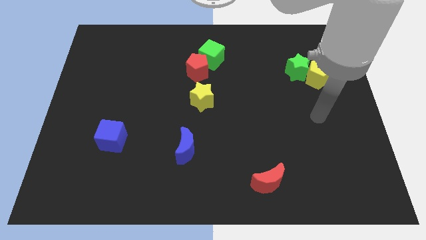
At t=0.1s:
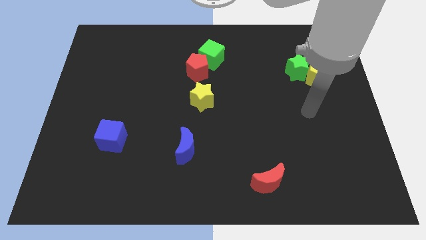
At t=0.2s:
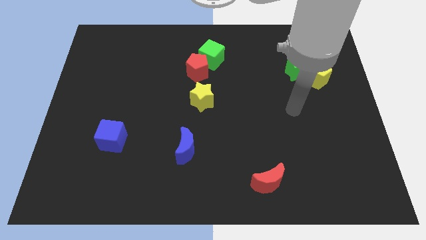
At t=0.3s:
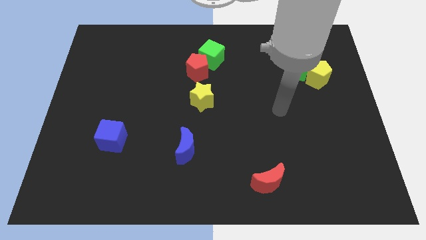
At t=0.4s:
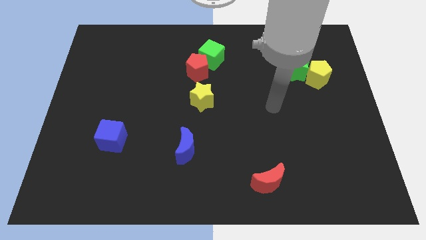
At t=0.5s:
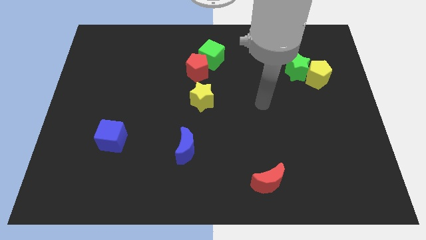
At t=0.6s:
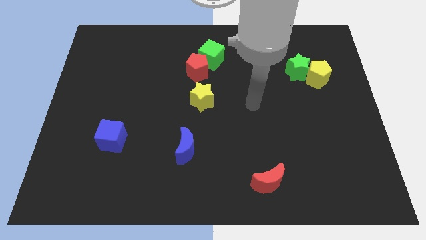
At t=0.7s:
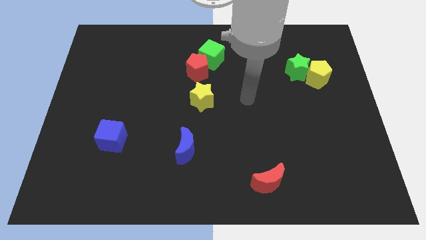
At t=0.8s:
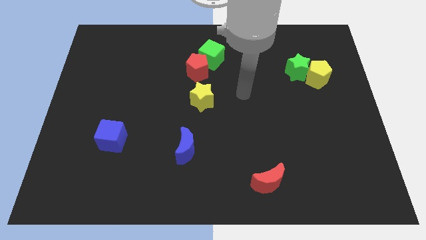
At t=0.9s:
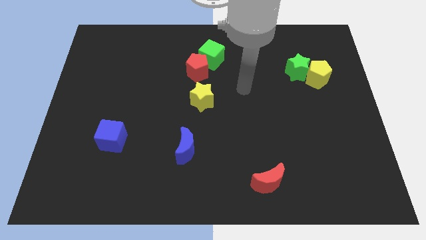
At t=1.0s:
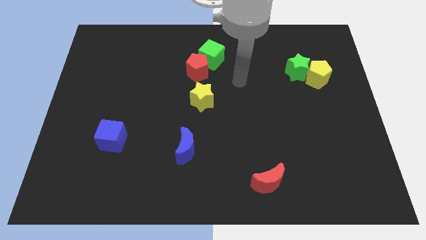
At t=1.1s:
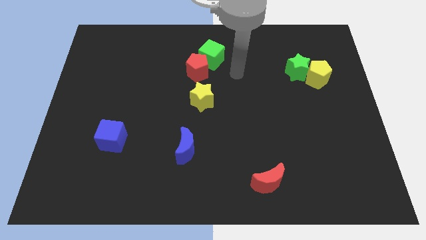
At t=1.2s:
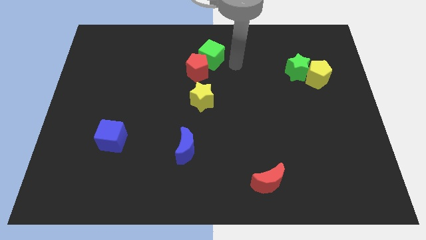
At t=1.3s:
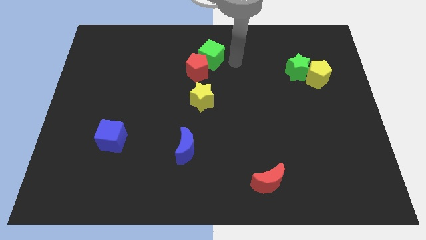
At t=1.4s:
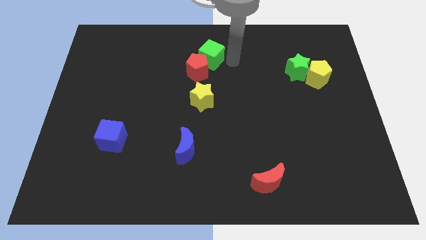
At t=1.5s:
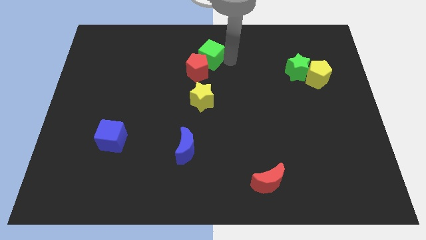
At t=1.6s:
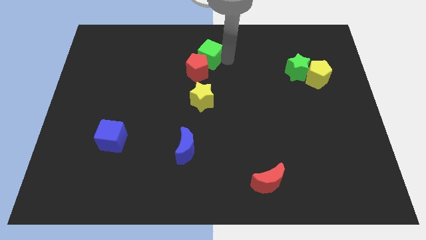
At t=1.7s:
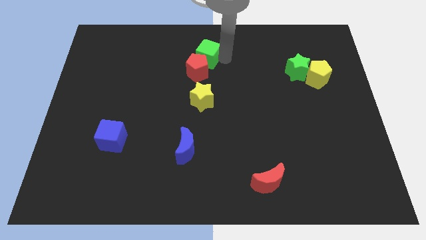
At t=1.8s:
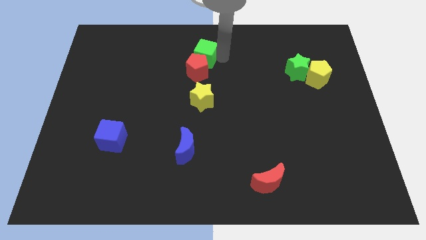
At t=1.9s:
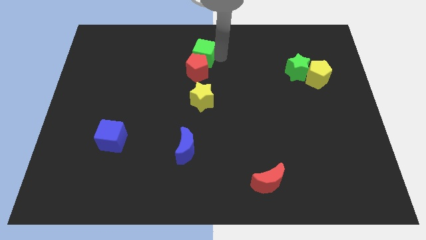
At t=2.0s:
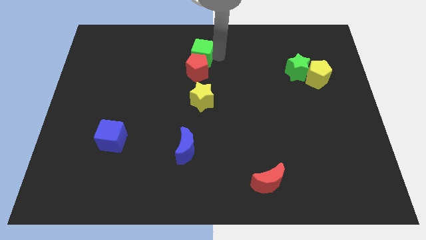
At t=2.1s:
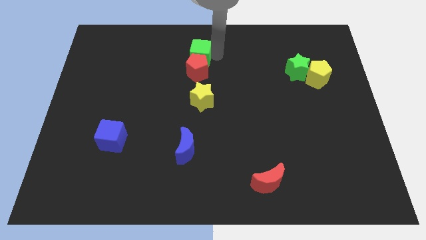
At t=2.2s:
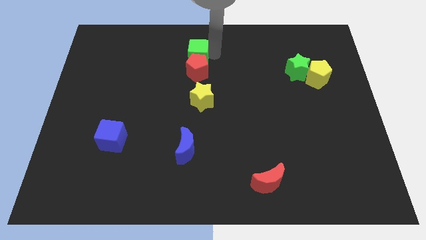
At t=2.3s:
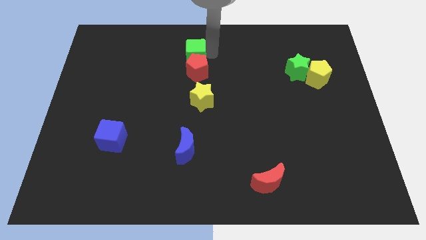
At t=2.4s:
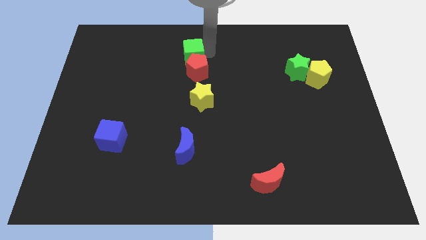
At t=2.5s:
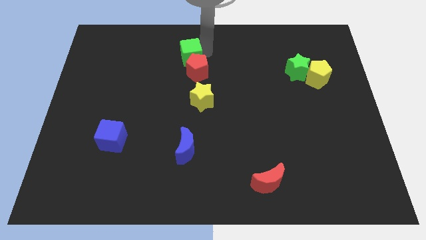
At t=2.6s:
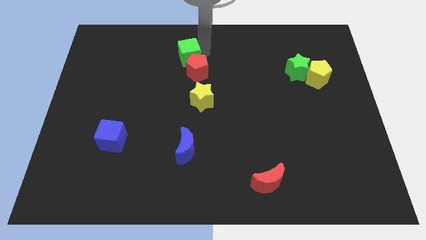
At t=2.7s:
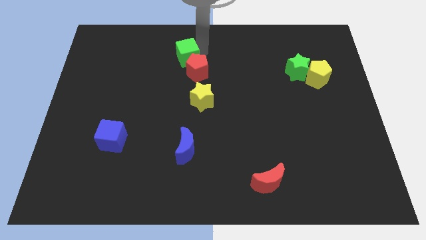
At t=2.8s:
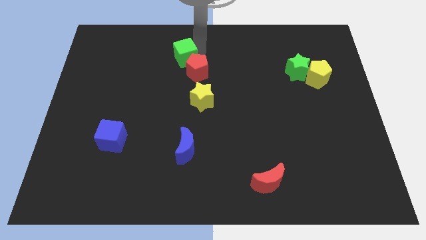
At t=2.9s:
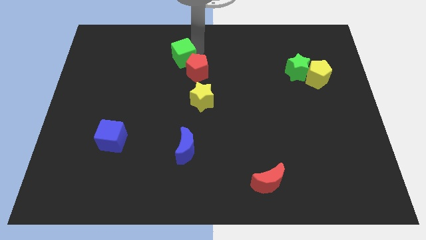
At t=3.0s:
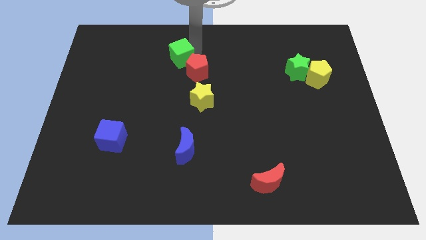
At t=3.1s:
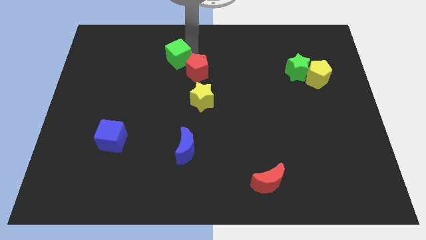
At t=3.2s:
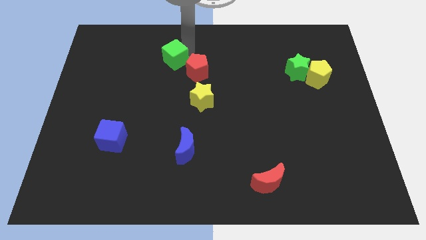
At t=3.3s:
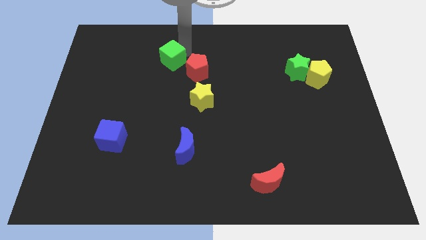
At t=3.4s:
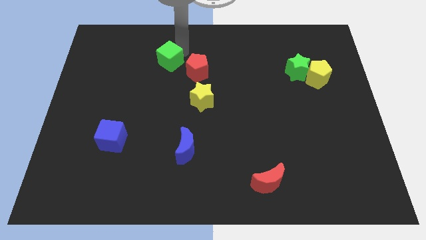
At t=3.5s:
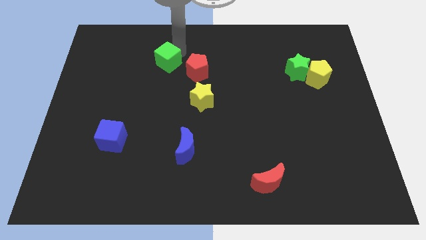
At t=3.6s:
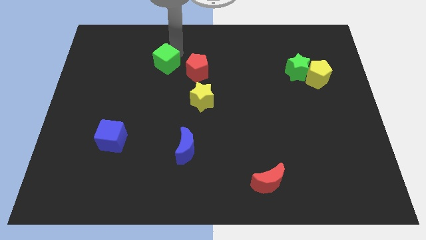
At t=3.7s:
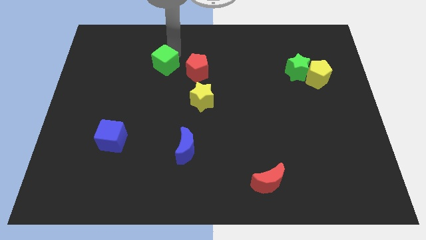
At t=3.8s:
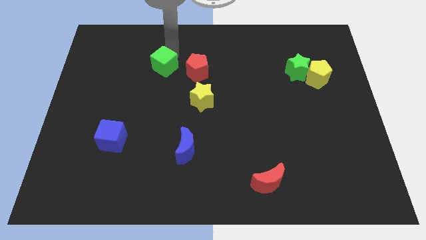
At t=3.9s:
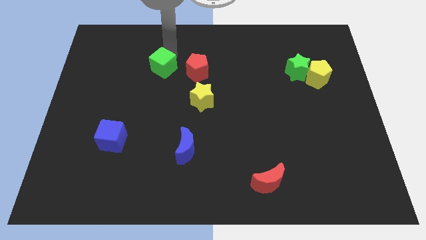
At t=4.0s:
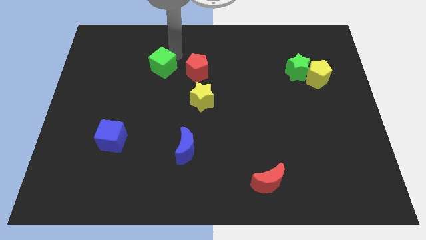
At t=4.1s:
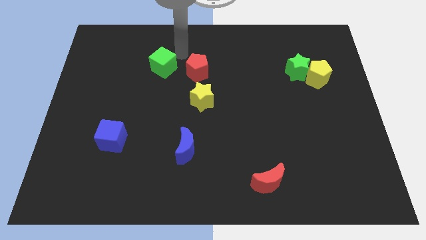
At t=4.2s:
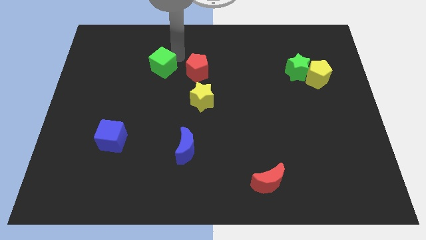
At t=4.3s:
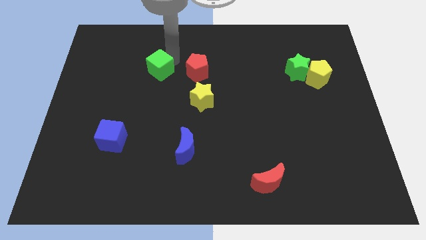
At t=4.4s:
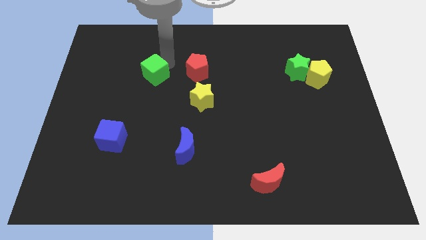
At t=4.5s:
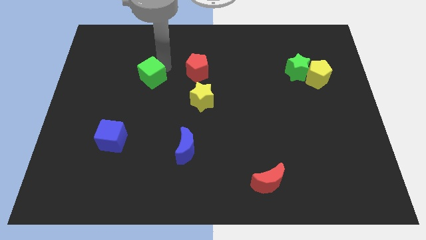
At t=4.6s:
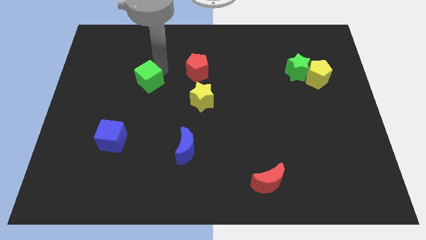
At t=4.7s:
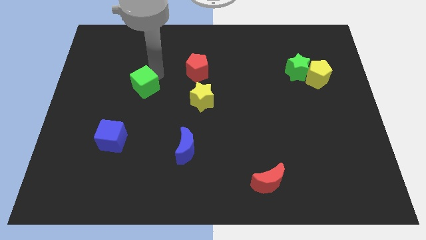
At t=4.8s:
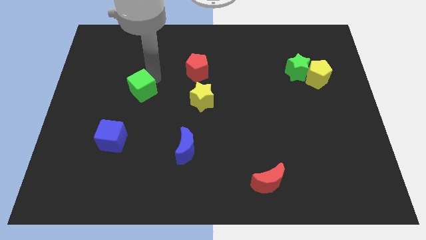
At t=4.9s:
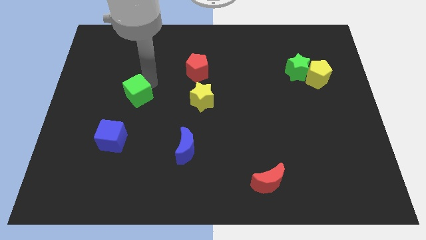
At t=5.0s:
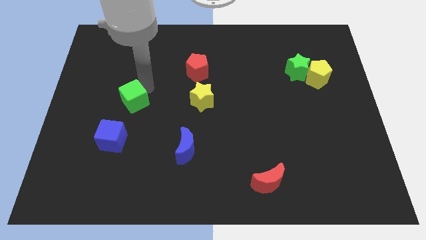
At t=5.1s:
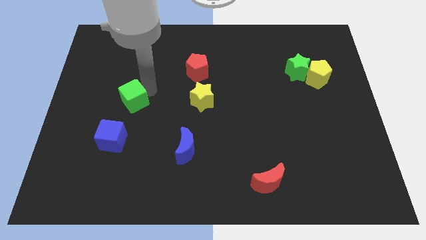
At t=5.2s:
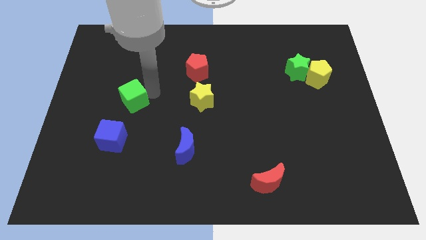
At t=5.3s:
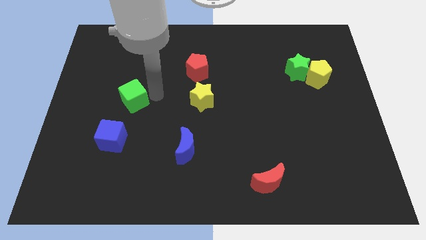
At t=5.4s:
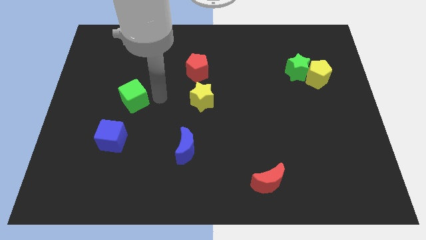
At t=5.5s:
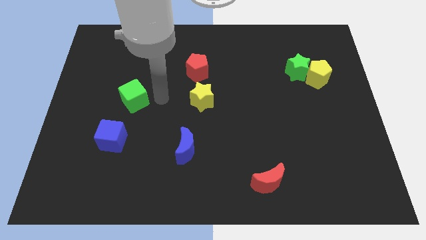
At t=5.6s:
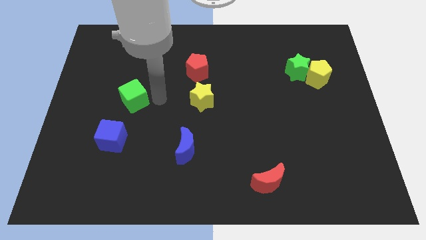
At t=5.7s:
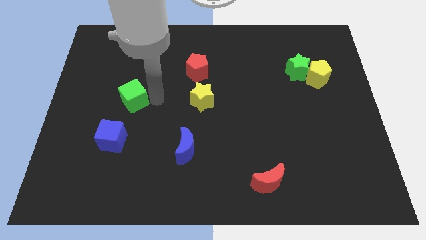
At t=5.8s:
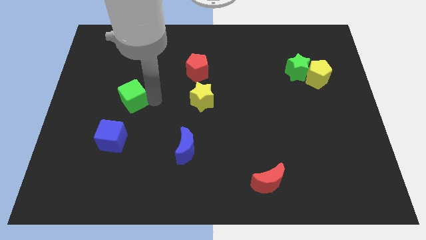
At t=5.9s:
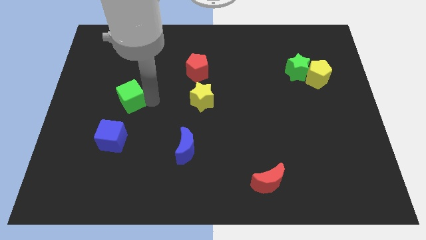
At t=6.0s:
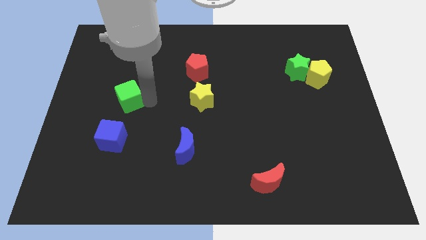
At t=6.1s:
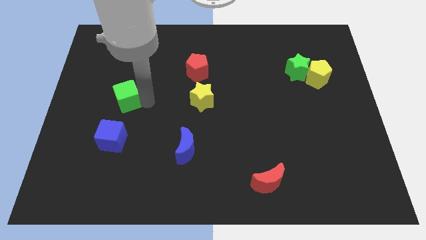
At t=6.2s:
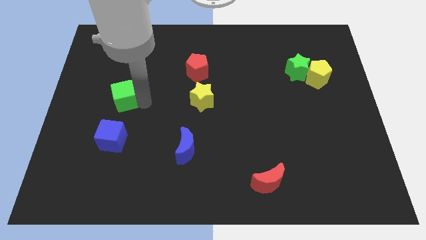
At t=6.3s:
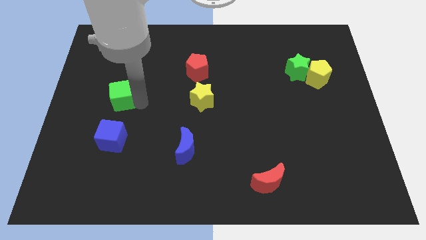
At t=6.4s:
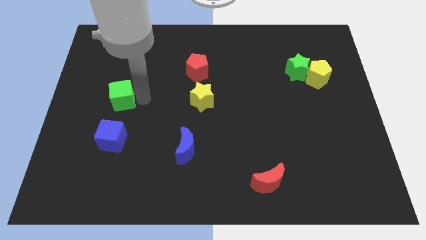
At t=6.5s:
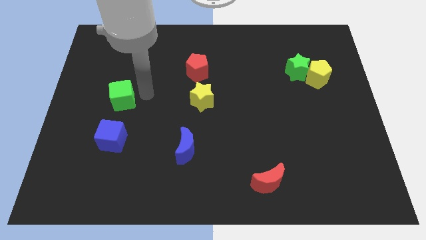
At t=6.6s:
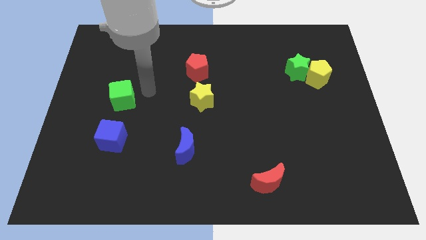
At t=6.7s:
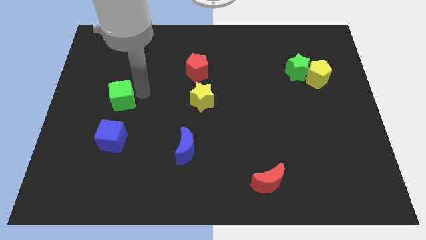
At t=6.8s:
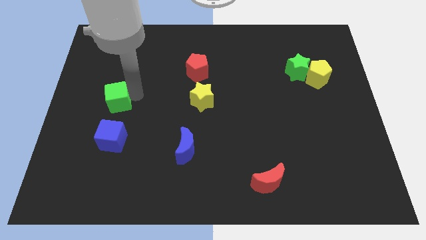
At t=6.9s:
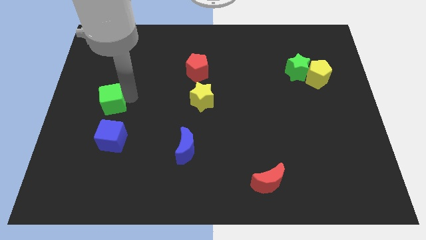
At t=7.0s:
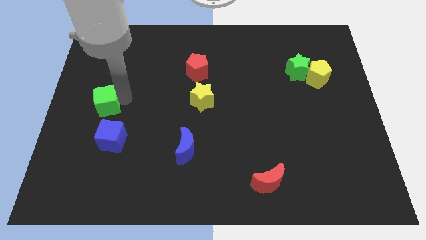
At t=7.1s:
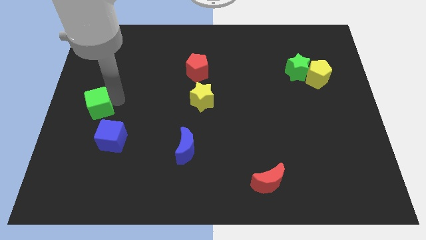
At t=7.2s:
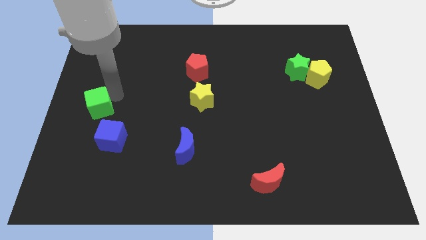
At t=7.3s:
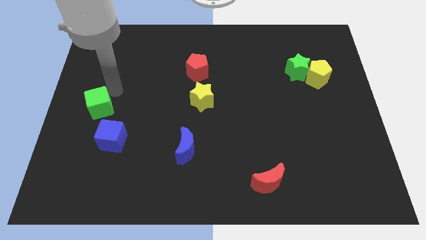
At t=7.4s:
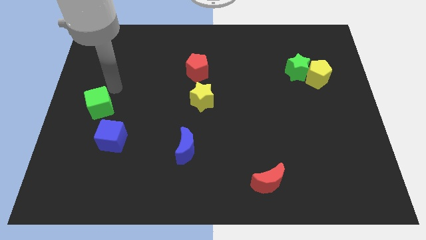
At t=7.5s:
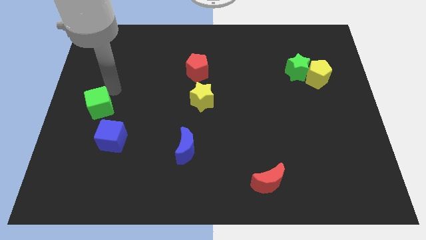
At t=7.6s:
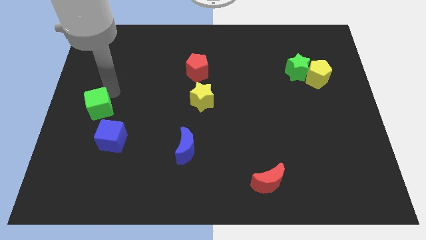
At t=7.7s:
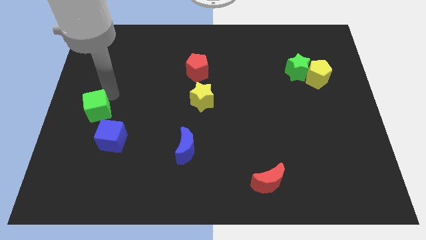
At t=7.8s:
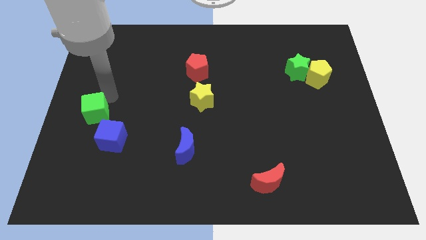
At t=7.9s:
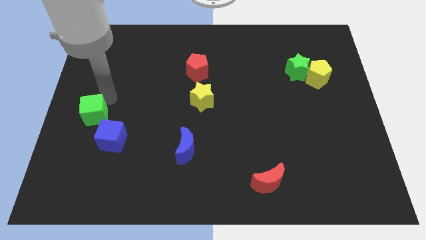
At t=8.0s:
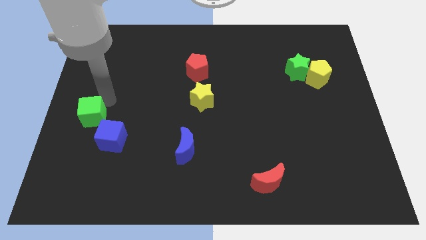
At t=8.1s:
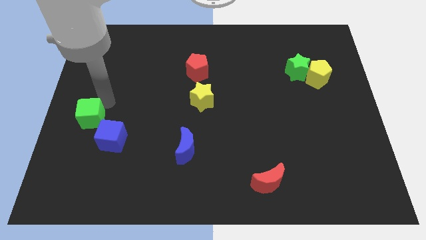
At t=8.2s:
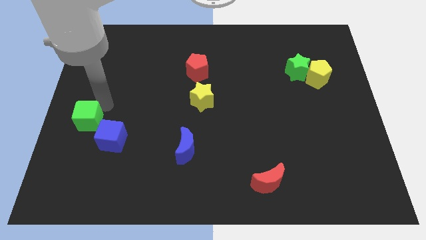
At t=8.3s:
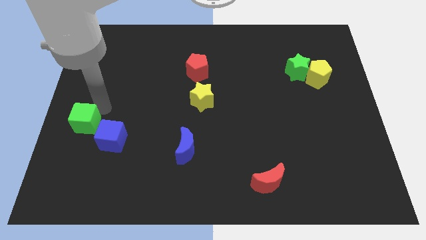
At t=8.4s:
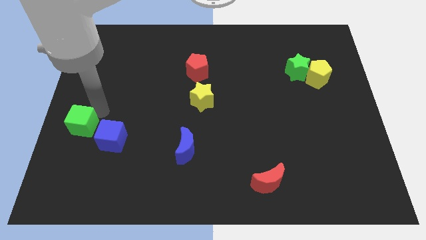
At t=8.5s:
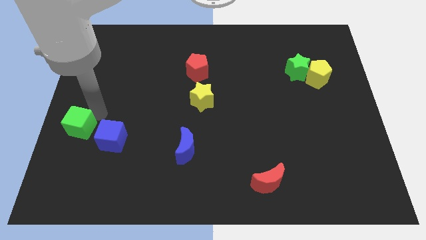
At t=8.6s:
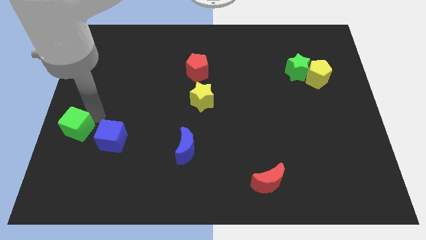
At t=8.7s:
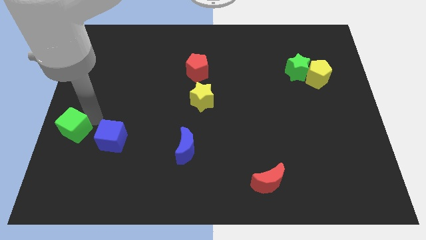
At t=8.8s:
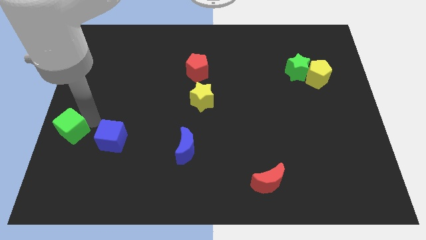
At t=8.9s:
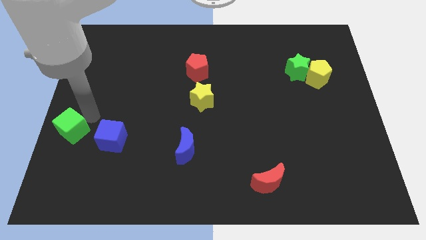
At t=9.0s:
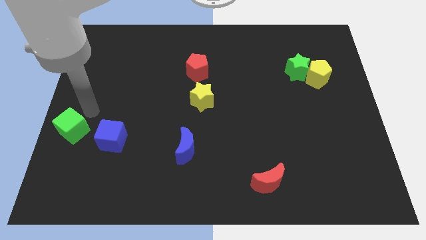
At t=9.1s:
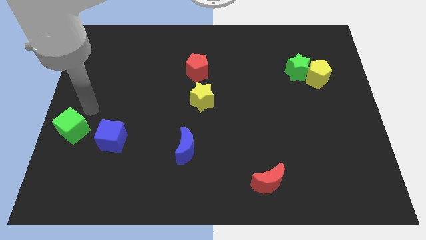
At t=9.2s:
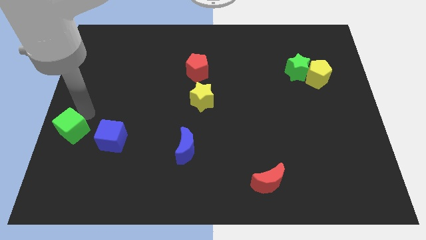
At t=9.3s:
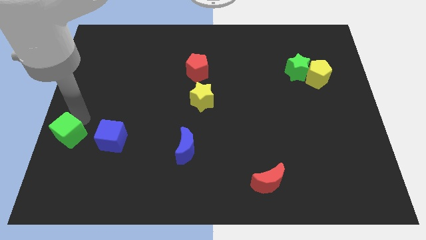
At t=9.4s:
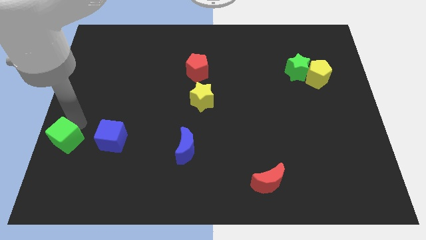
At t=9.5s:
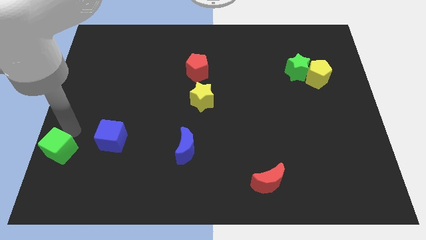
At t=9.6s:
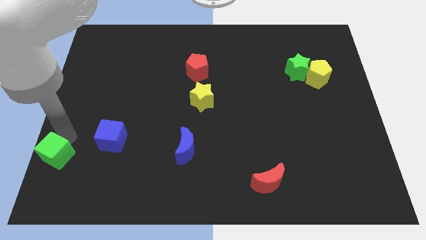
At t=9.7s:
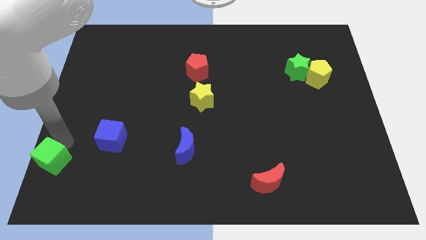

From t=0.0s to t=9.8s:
put the green cube to the bottom left corner
